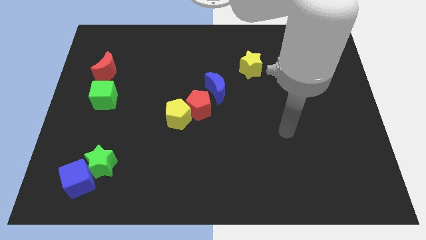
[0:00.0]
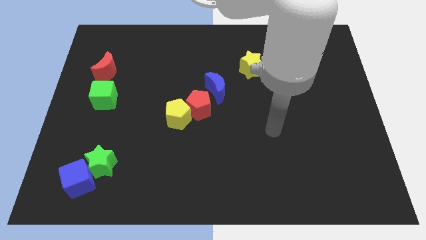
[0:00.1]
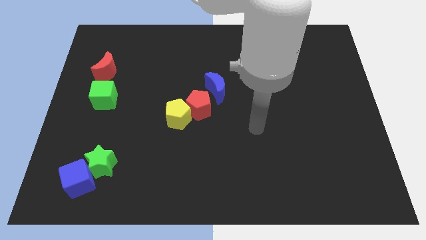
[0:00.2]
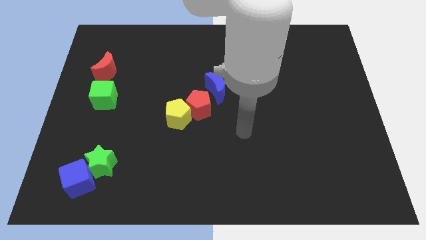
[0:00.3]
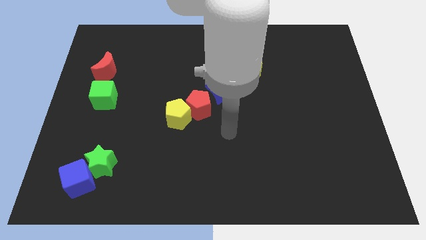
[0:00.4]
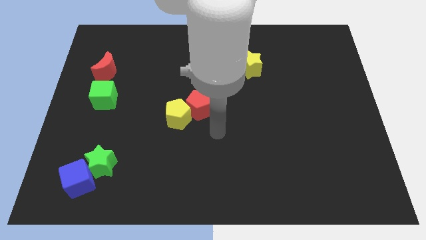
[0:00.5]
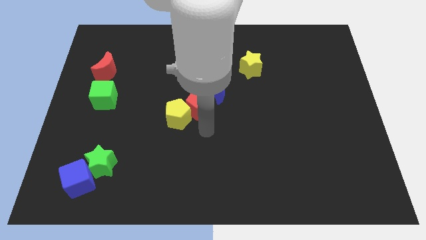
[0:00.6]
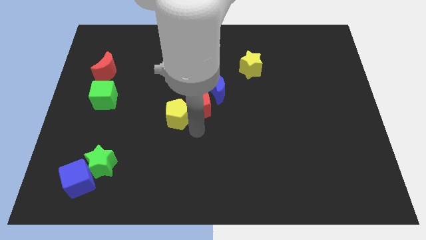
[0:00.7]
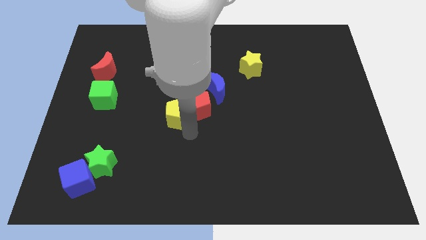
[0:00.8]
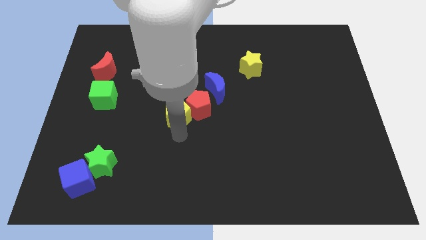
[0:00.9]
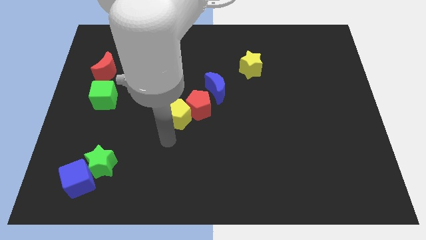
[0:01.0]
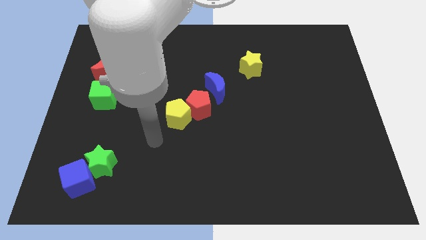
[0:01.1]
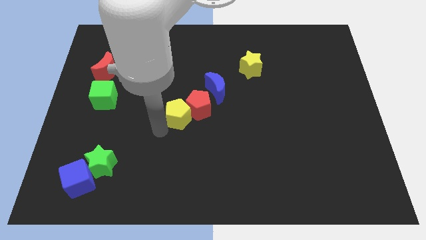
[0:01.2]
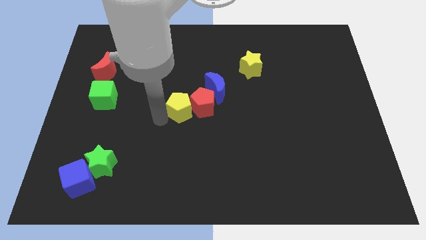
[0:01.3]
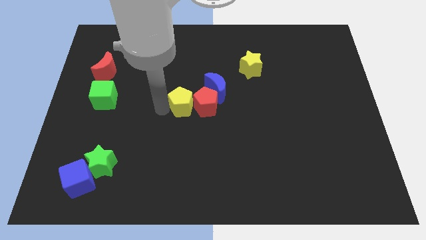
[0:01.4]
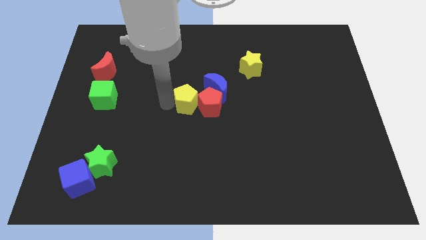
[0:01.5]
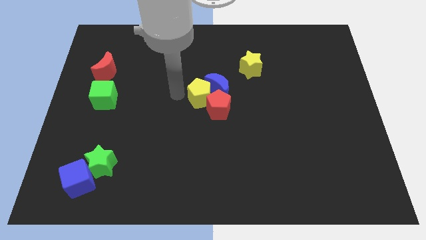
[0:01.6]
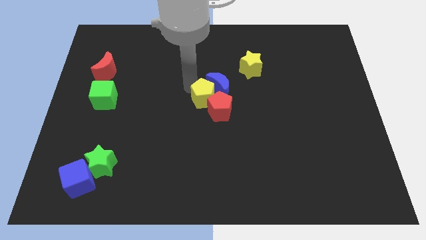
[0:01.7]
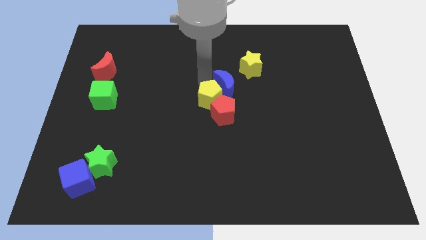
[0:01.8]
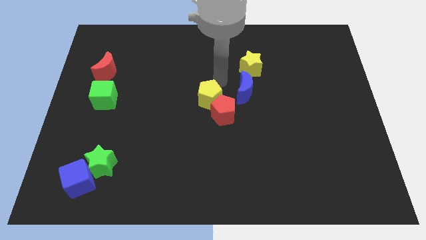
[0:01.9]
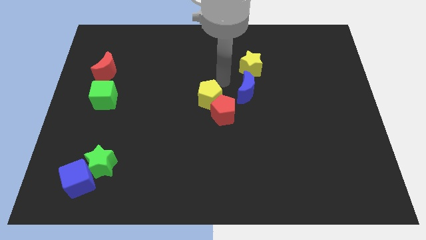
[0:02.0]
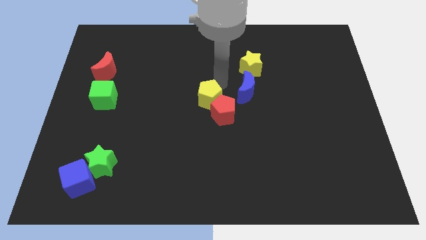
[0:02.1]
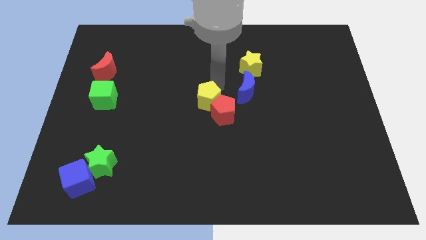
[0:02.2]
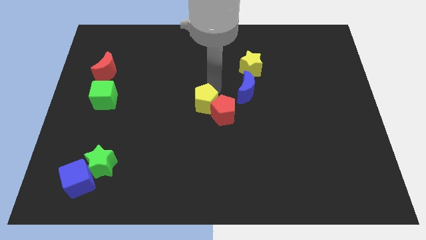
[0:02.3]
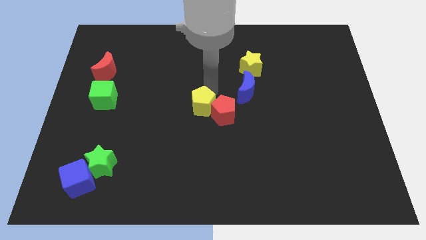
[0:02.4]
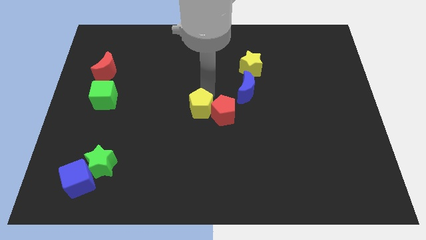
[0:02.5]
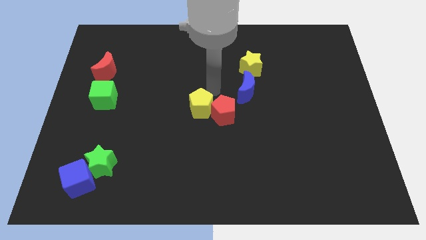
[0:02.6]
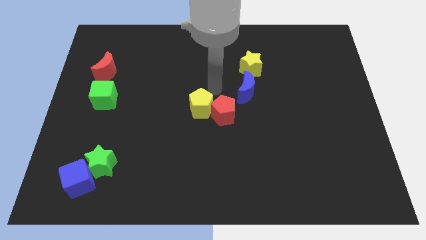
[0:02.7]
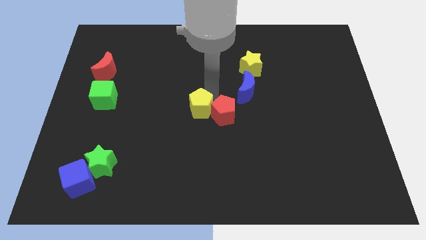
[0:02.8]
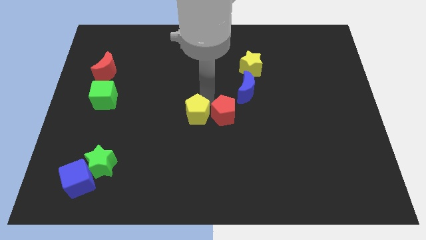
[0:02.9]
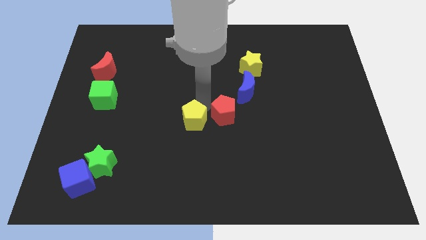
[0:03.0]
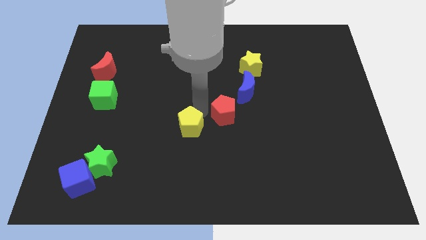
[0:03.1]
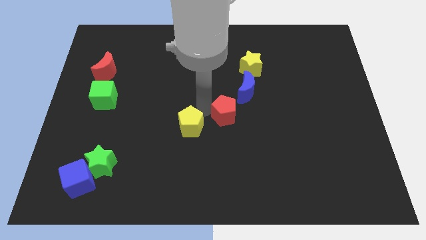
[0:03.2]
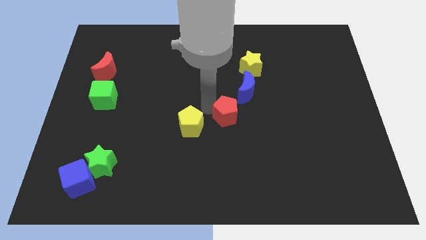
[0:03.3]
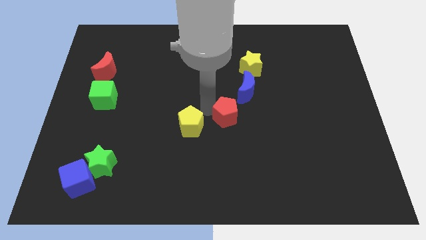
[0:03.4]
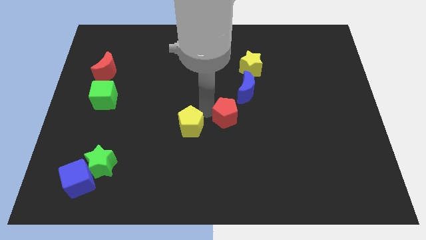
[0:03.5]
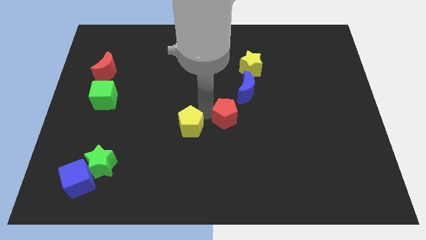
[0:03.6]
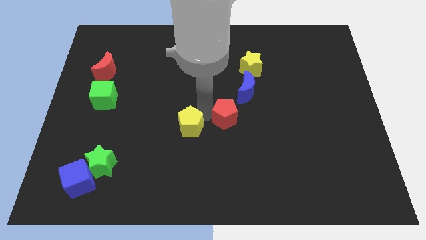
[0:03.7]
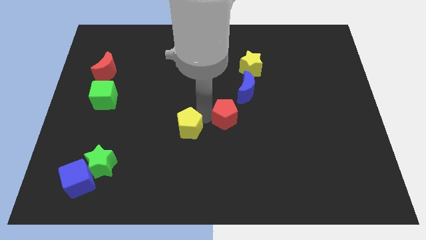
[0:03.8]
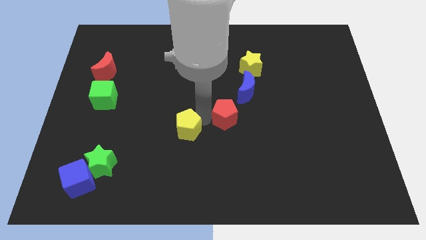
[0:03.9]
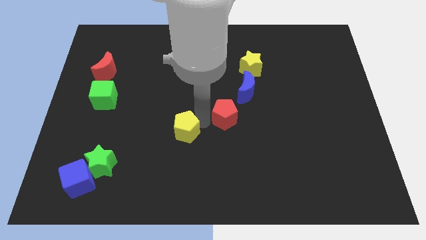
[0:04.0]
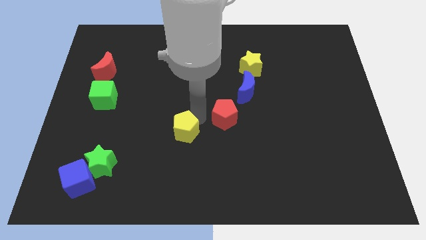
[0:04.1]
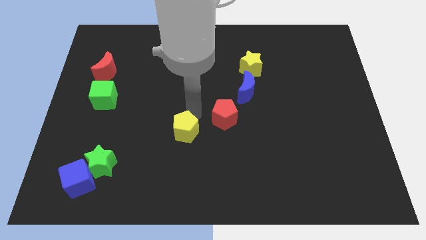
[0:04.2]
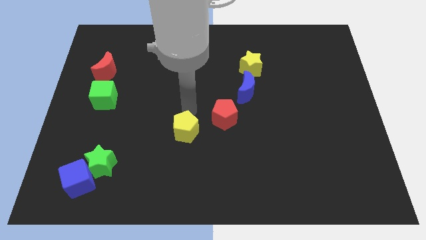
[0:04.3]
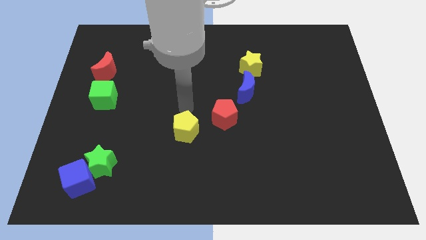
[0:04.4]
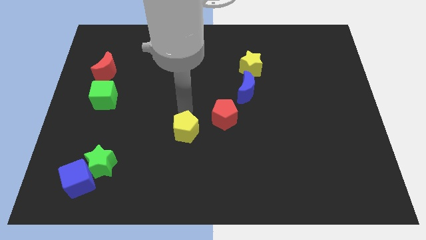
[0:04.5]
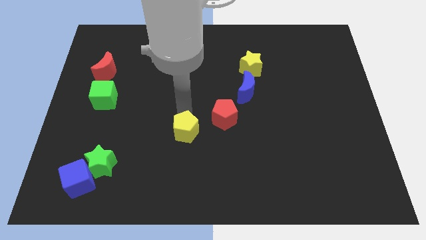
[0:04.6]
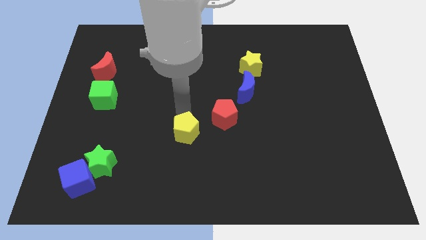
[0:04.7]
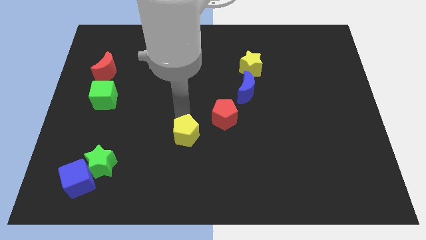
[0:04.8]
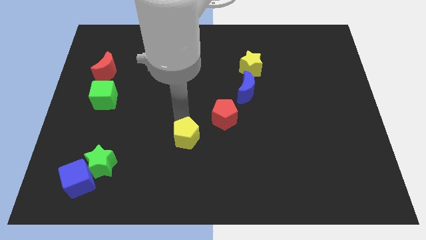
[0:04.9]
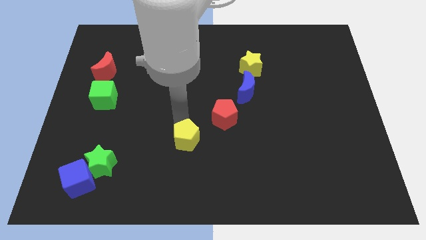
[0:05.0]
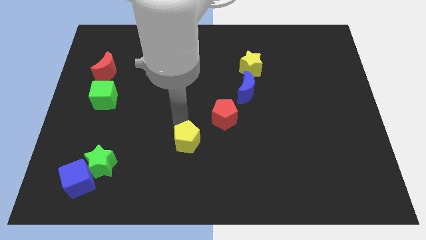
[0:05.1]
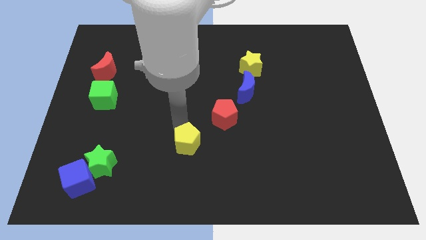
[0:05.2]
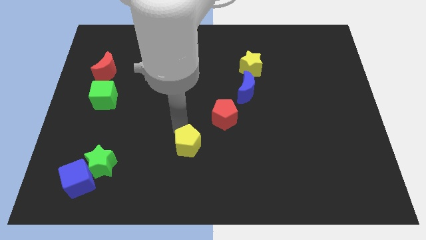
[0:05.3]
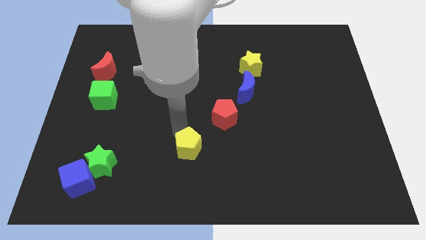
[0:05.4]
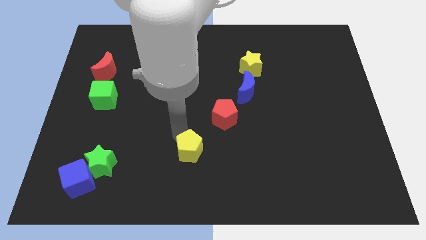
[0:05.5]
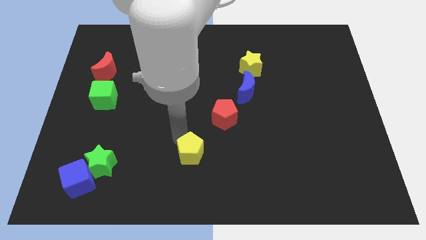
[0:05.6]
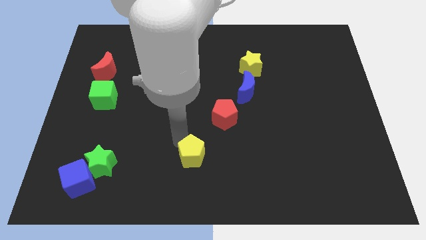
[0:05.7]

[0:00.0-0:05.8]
push the yellow pentagon to the bottom side
